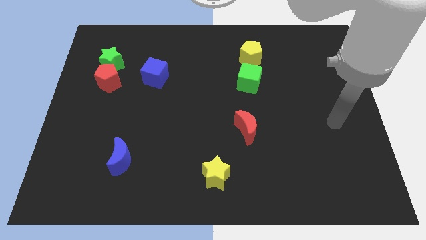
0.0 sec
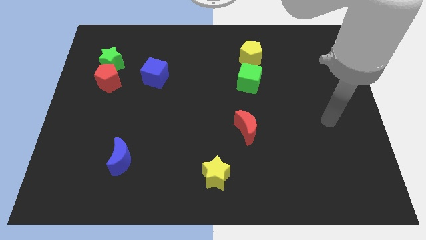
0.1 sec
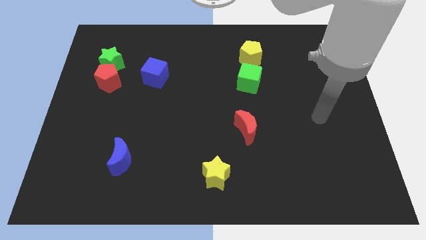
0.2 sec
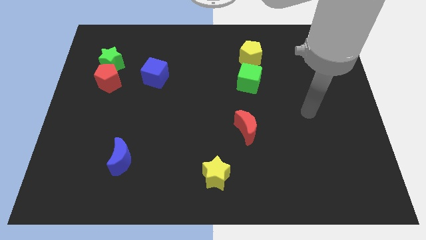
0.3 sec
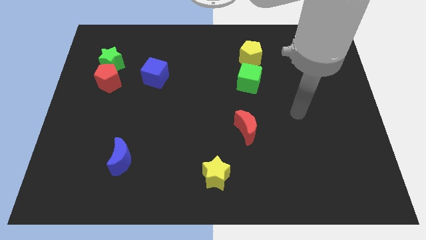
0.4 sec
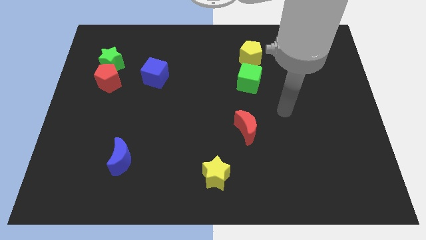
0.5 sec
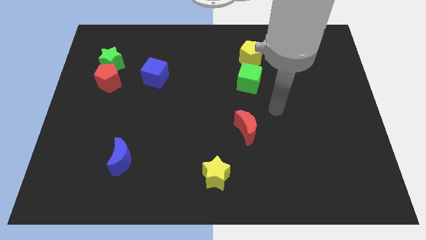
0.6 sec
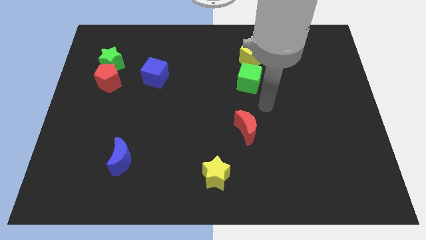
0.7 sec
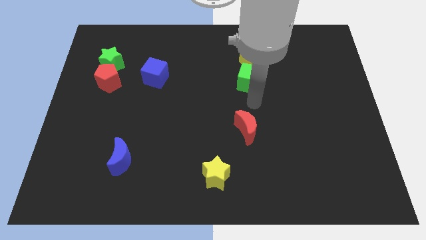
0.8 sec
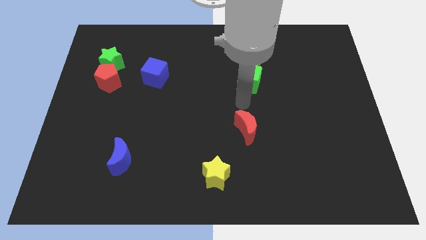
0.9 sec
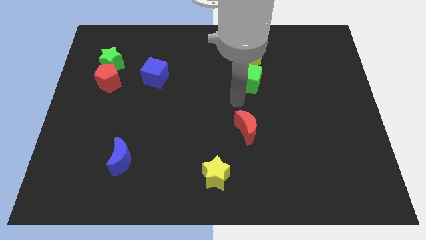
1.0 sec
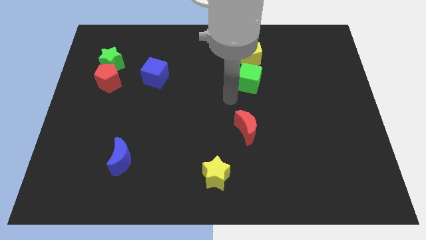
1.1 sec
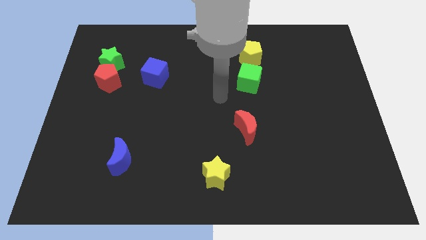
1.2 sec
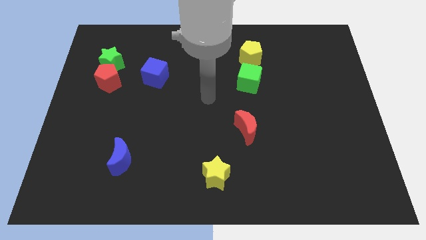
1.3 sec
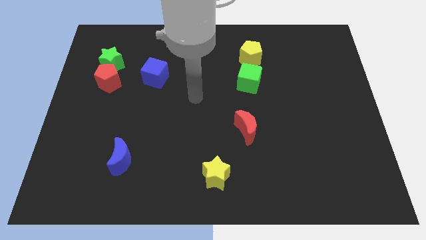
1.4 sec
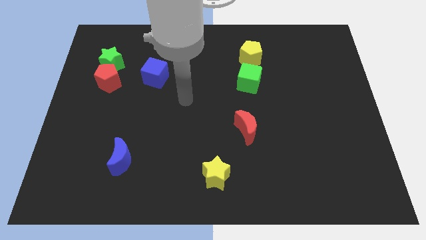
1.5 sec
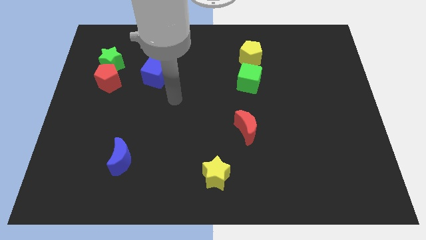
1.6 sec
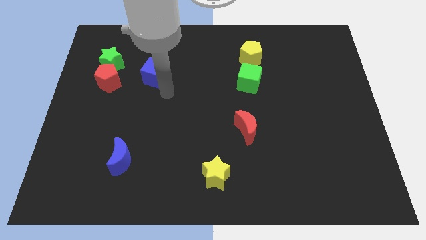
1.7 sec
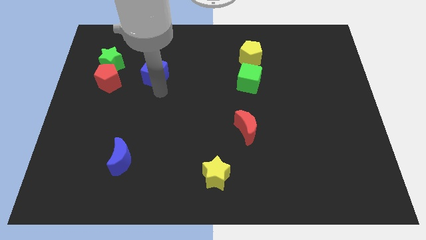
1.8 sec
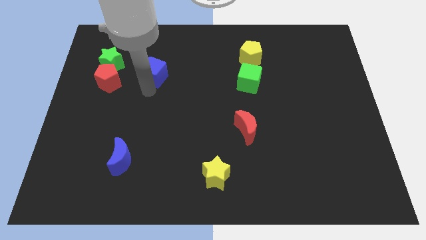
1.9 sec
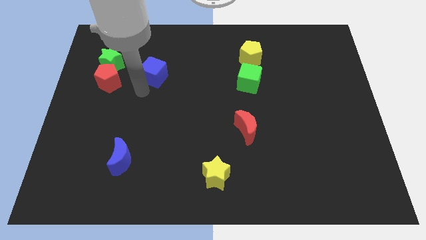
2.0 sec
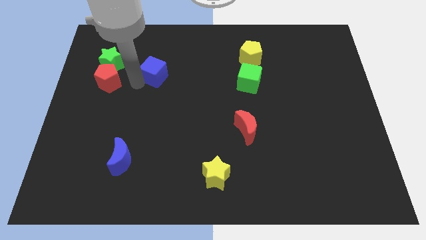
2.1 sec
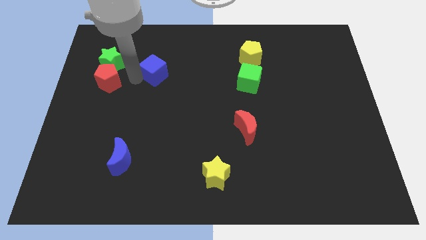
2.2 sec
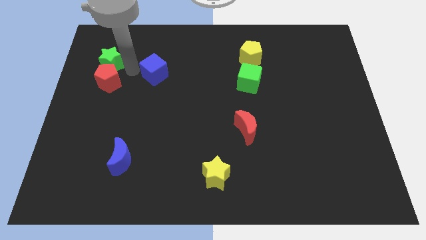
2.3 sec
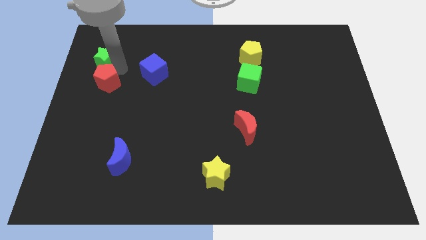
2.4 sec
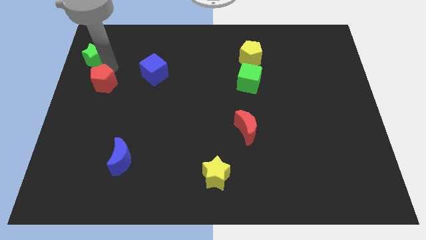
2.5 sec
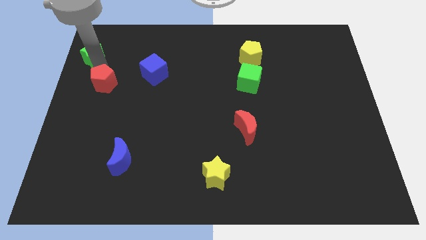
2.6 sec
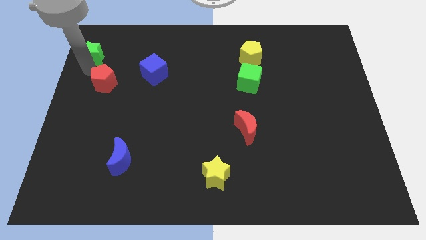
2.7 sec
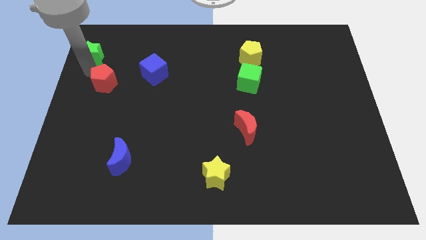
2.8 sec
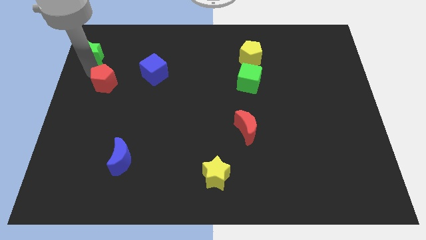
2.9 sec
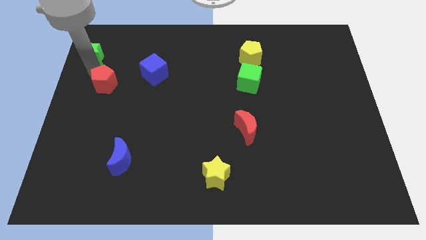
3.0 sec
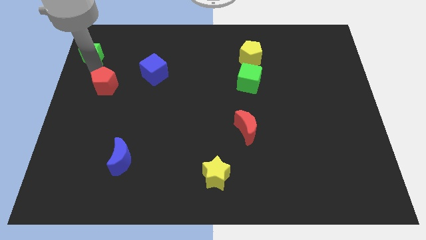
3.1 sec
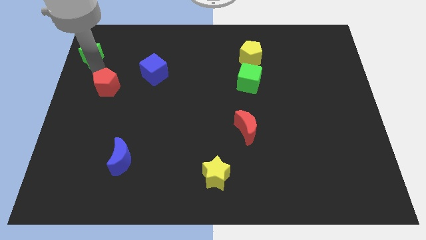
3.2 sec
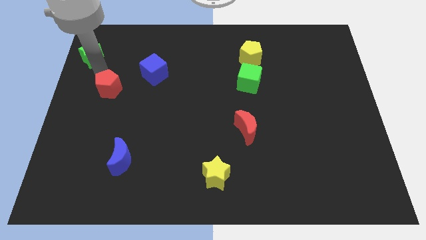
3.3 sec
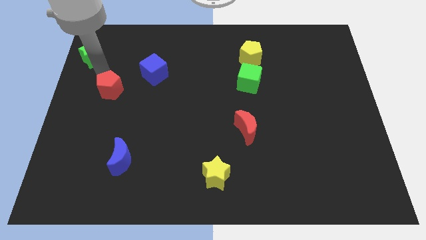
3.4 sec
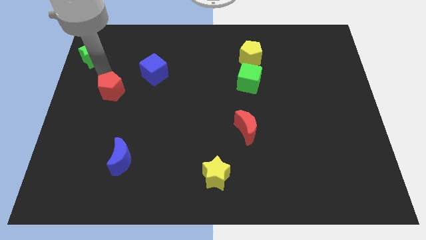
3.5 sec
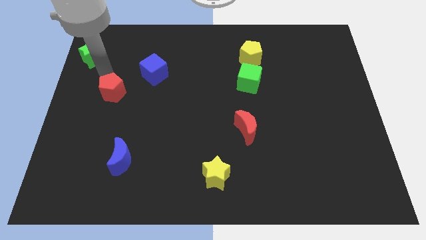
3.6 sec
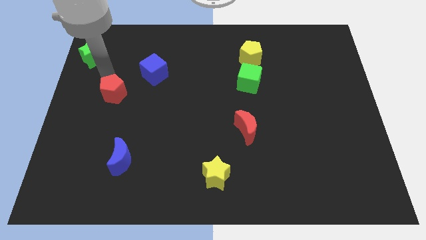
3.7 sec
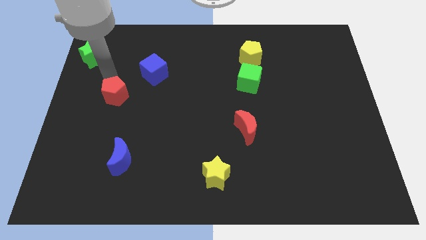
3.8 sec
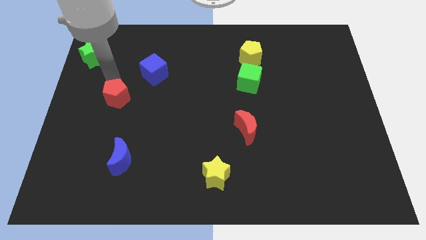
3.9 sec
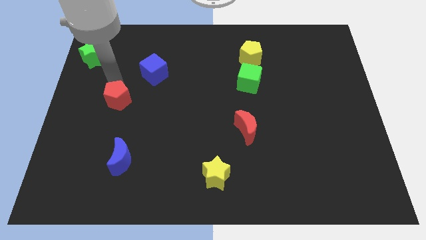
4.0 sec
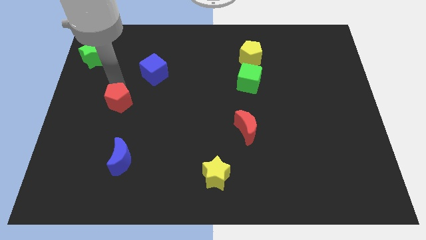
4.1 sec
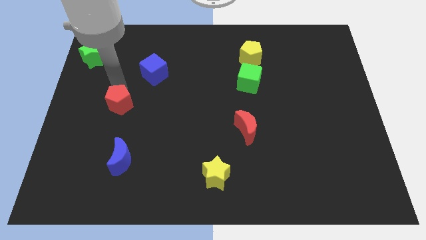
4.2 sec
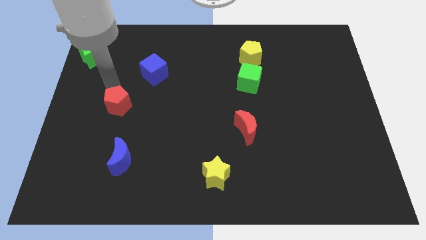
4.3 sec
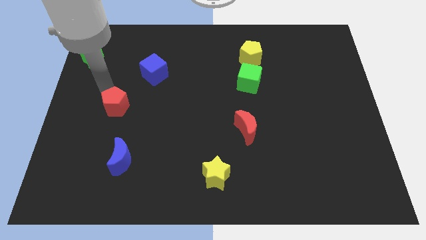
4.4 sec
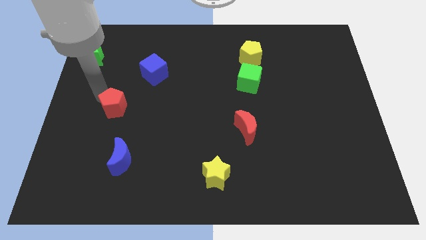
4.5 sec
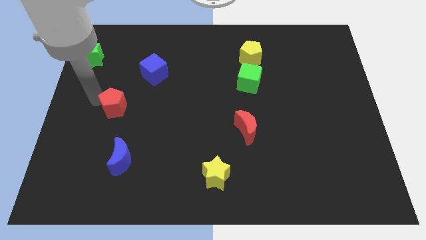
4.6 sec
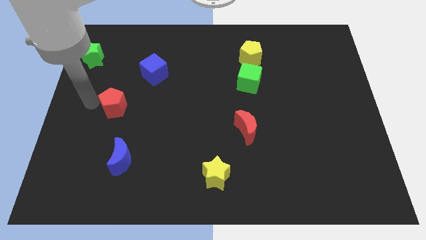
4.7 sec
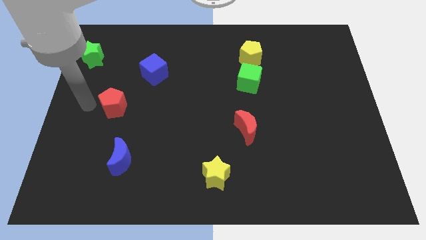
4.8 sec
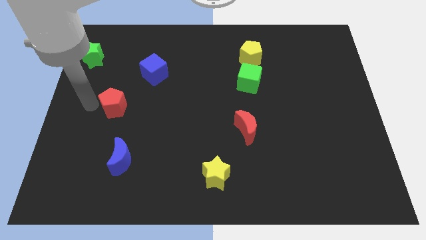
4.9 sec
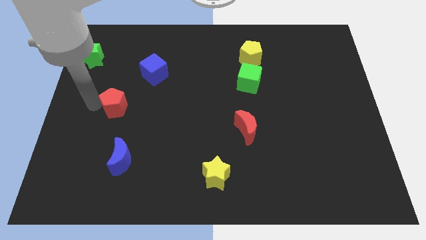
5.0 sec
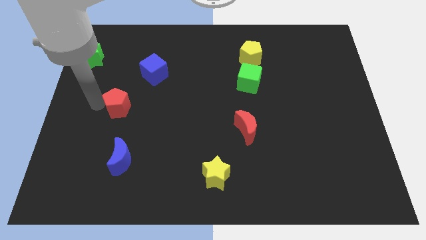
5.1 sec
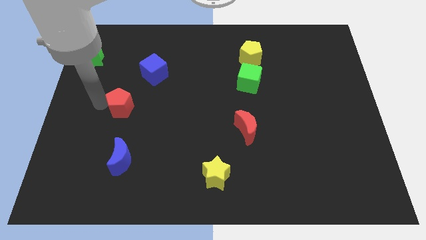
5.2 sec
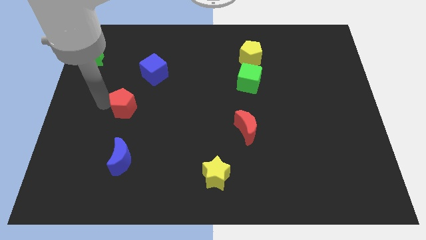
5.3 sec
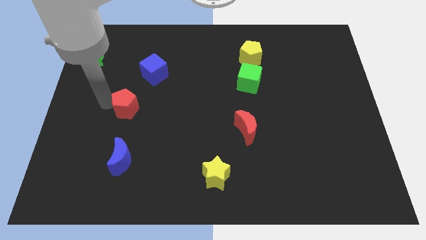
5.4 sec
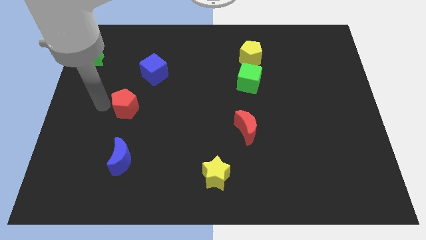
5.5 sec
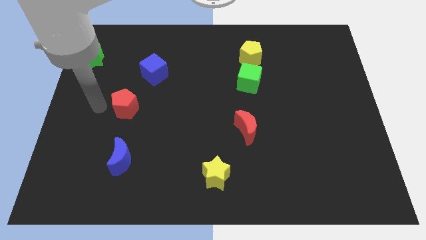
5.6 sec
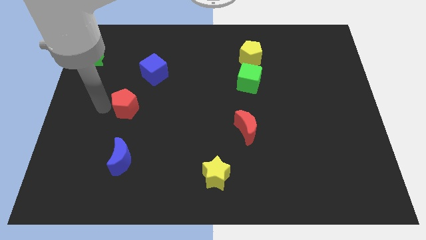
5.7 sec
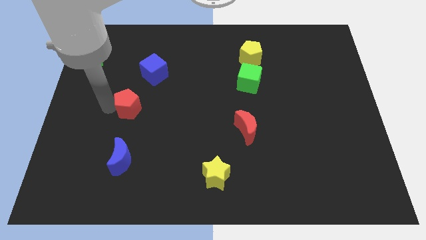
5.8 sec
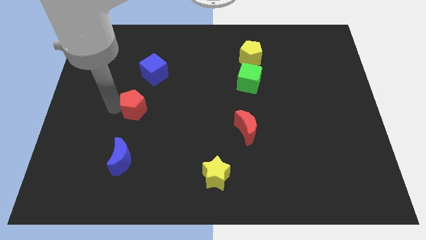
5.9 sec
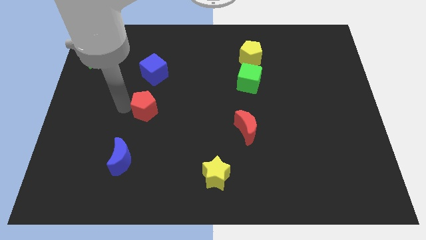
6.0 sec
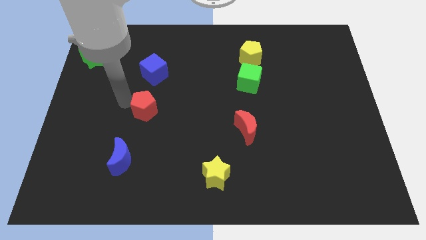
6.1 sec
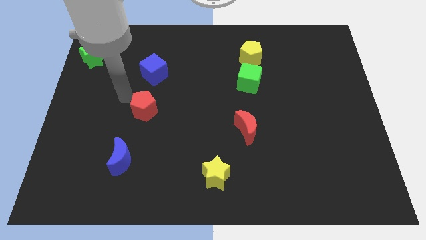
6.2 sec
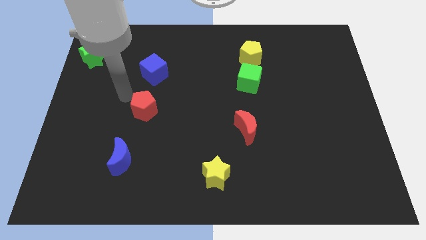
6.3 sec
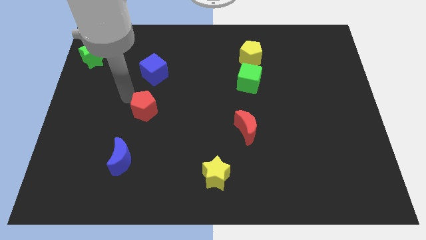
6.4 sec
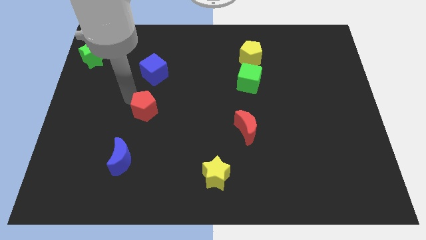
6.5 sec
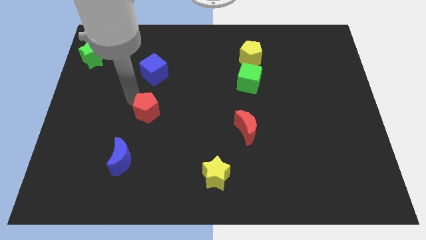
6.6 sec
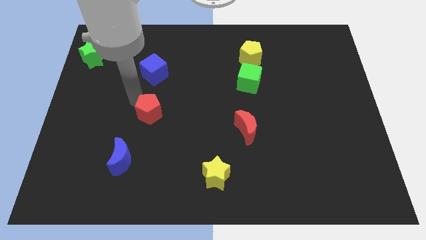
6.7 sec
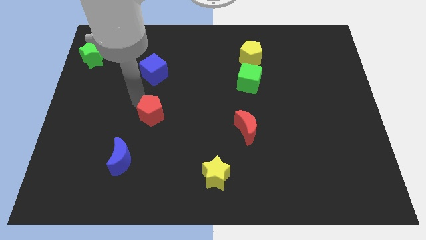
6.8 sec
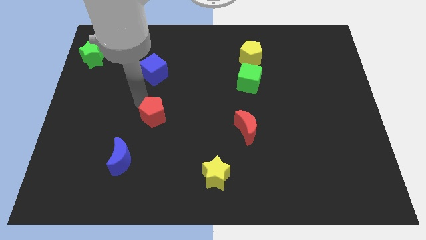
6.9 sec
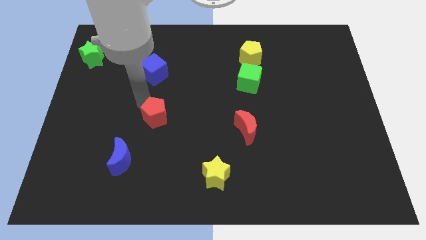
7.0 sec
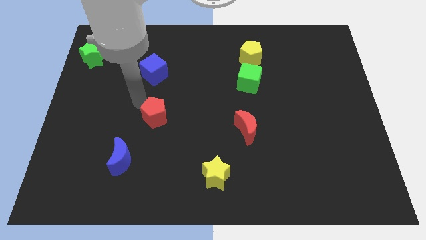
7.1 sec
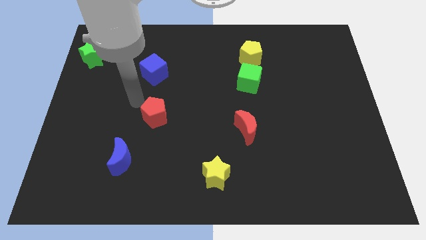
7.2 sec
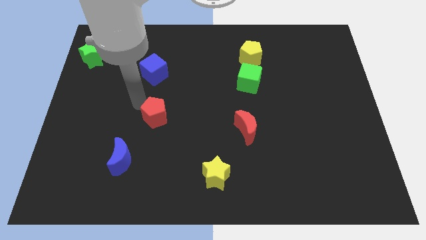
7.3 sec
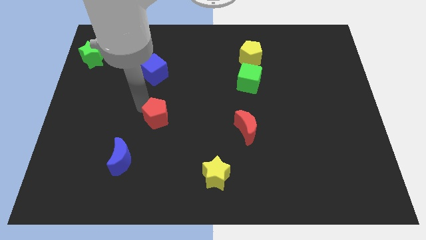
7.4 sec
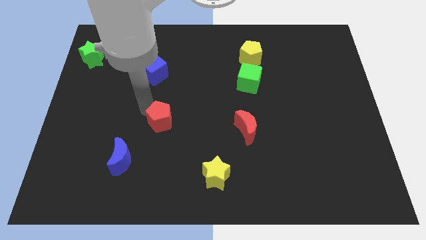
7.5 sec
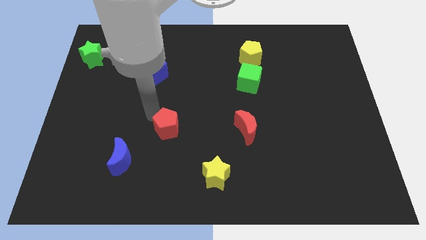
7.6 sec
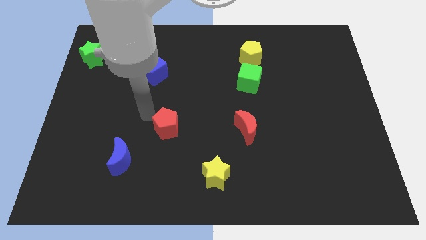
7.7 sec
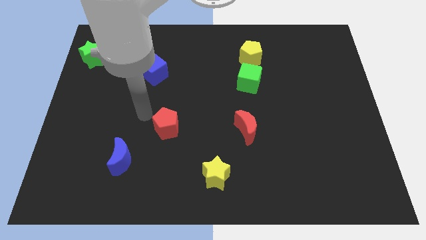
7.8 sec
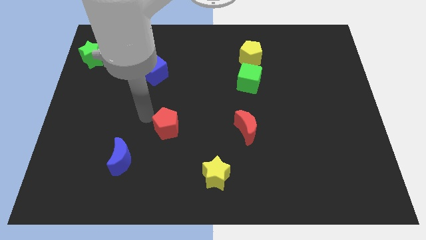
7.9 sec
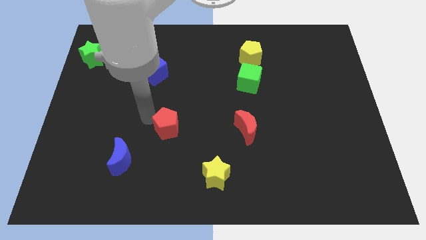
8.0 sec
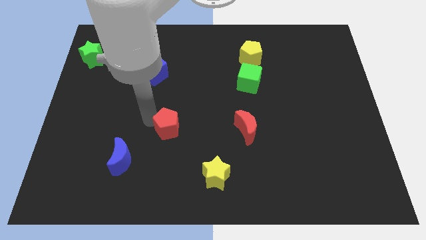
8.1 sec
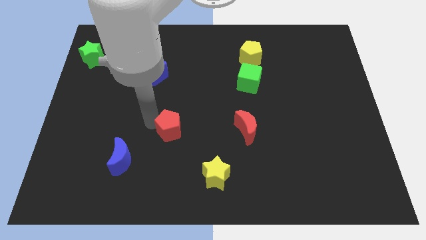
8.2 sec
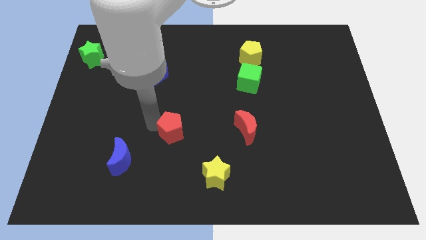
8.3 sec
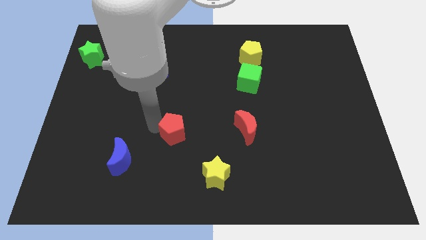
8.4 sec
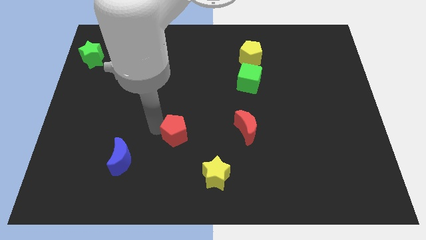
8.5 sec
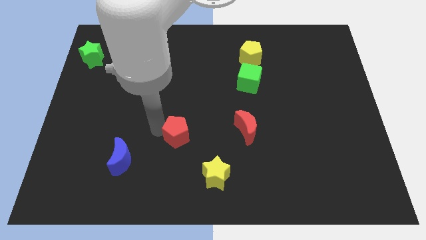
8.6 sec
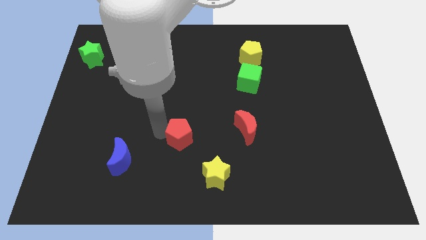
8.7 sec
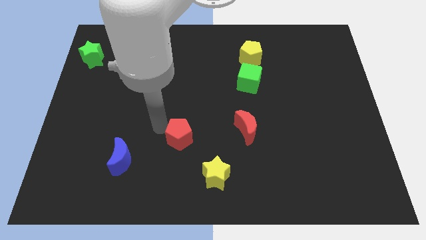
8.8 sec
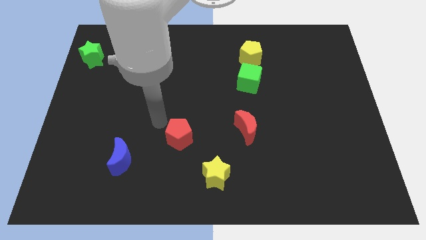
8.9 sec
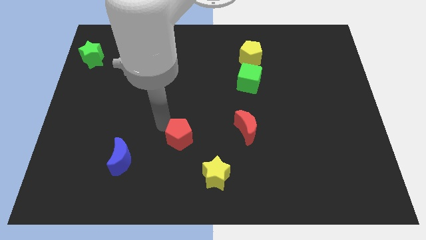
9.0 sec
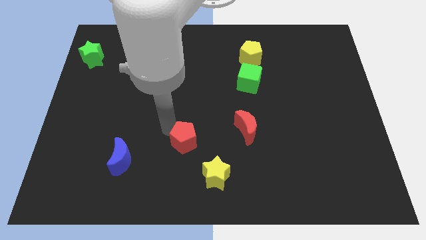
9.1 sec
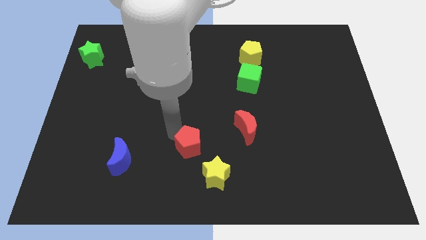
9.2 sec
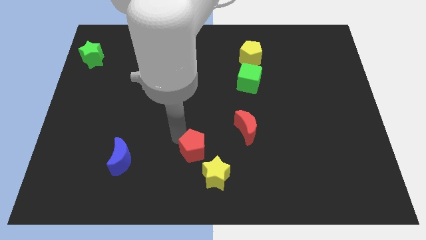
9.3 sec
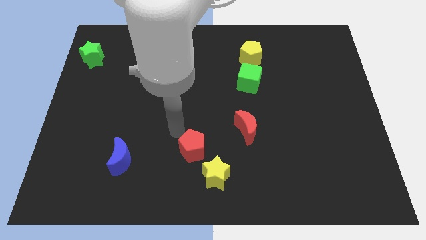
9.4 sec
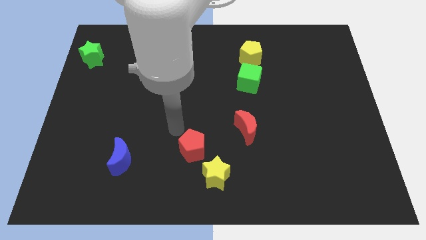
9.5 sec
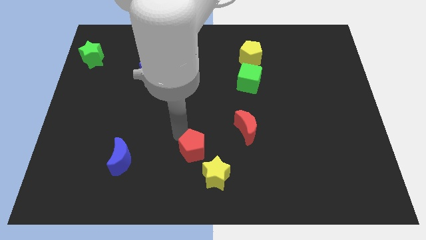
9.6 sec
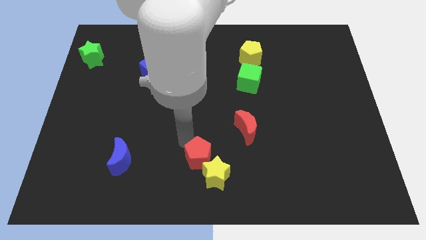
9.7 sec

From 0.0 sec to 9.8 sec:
push the red pentagon close to the yellow star
